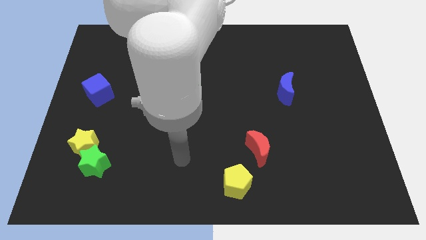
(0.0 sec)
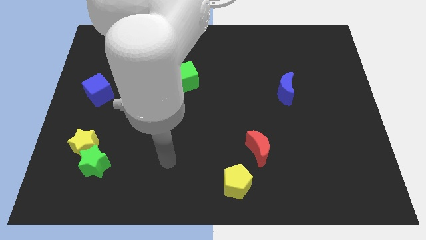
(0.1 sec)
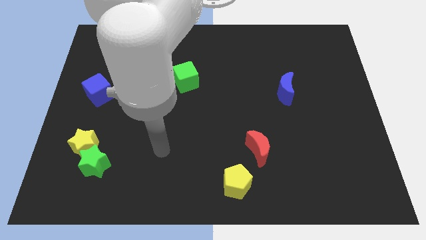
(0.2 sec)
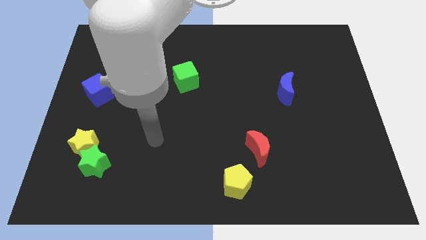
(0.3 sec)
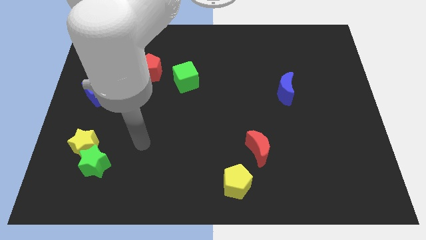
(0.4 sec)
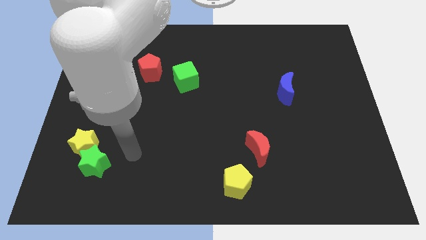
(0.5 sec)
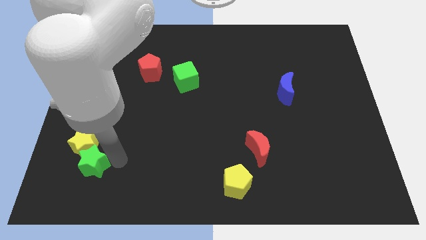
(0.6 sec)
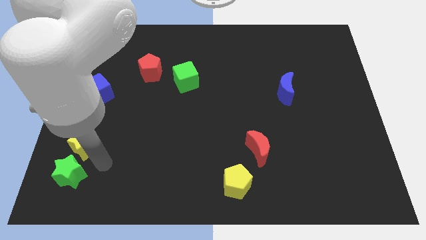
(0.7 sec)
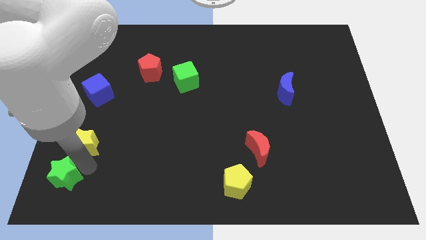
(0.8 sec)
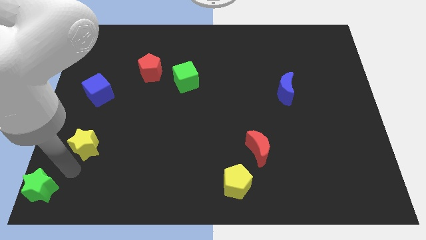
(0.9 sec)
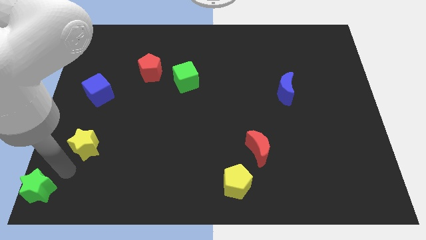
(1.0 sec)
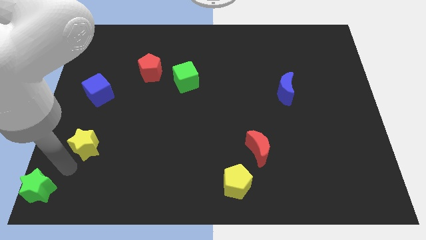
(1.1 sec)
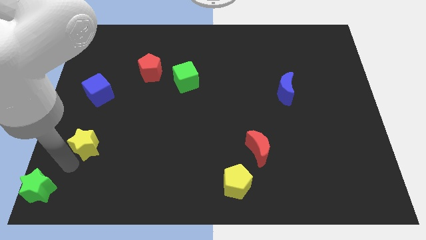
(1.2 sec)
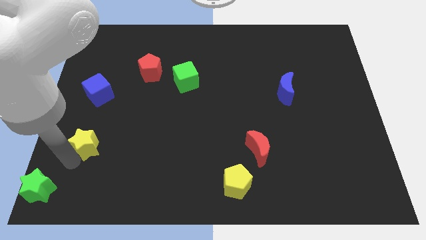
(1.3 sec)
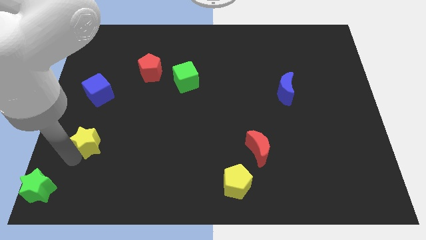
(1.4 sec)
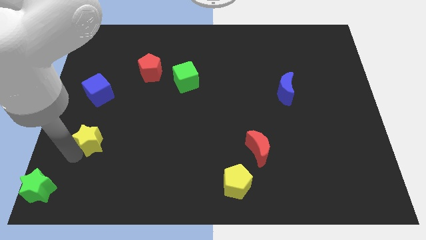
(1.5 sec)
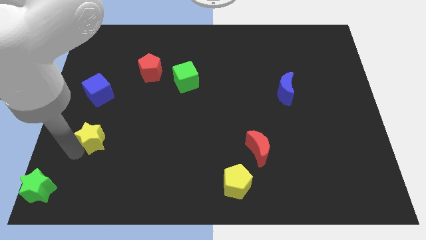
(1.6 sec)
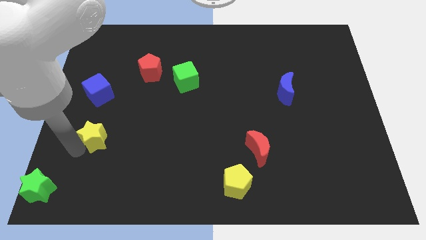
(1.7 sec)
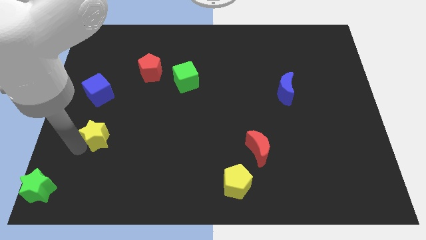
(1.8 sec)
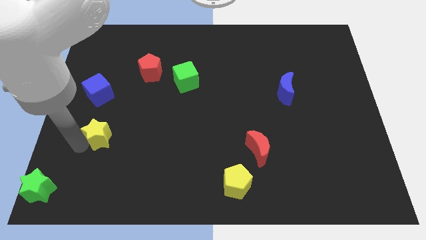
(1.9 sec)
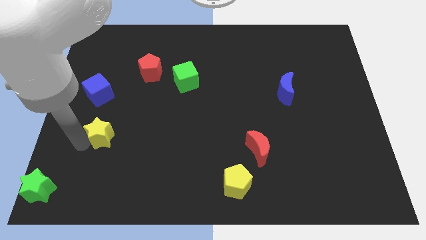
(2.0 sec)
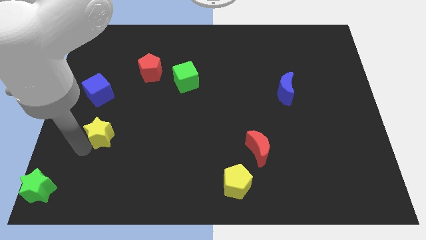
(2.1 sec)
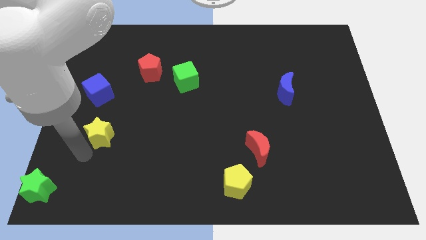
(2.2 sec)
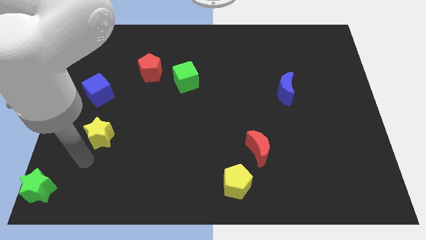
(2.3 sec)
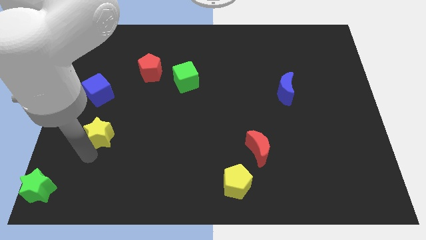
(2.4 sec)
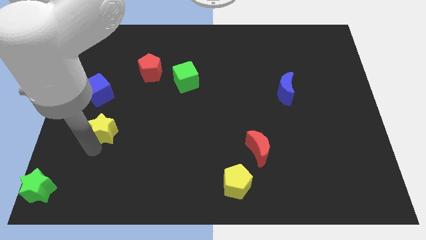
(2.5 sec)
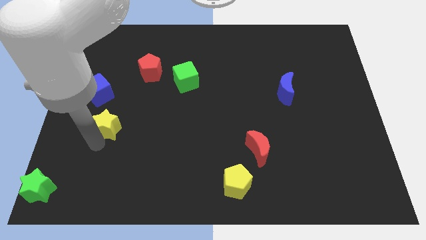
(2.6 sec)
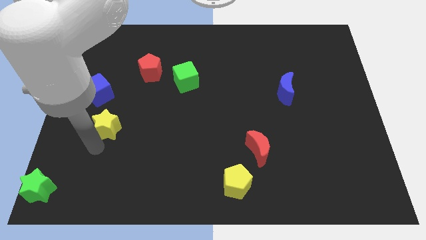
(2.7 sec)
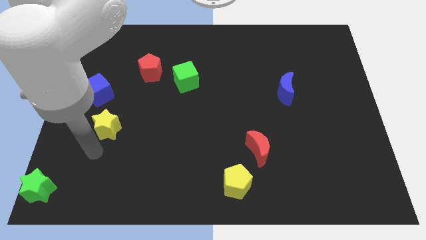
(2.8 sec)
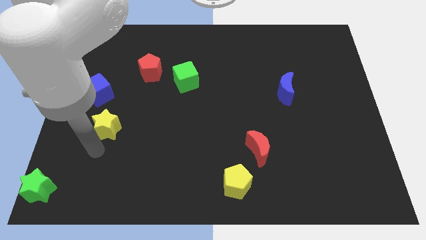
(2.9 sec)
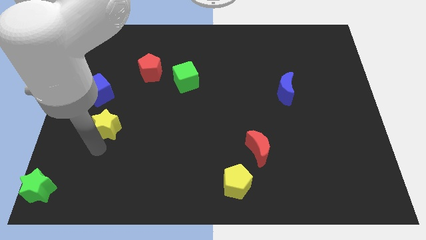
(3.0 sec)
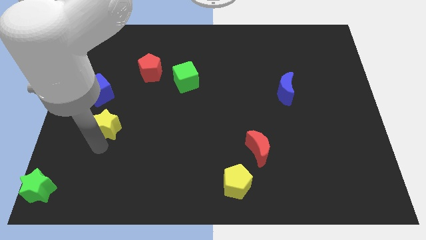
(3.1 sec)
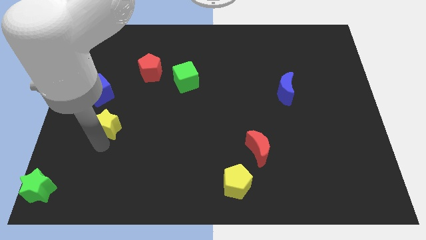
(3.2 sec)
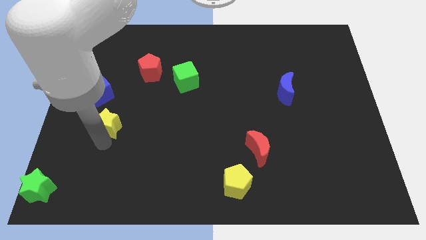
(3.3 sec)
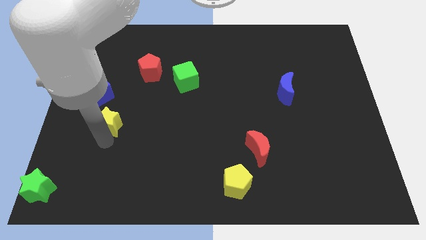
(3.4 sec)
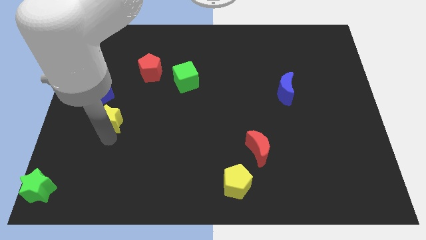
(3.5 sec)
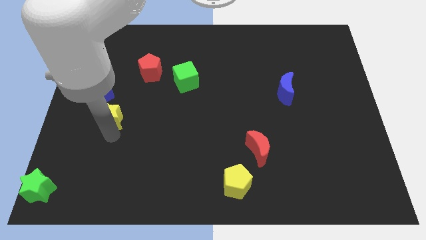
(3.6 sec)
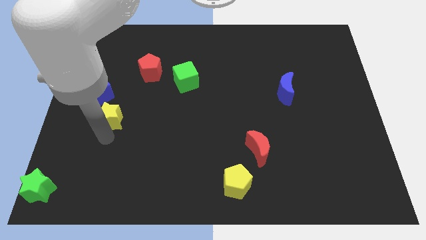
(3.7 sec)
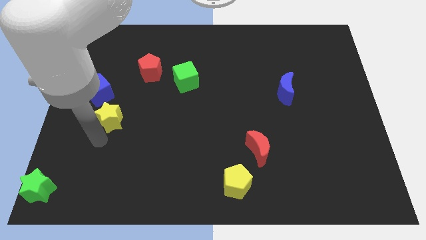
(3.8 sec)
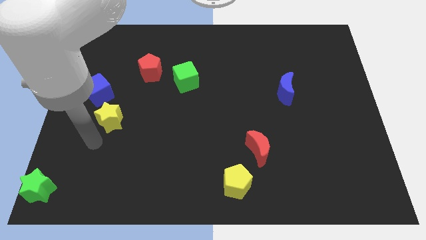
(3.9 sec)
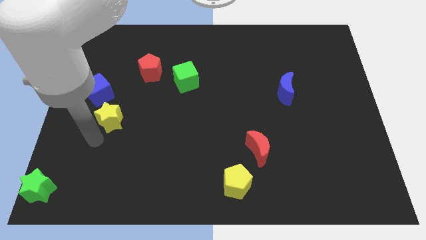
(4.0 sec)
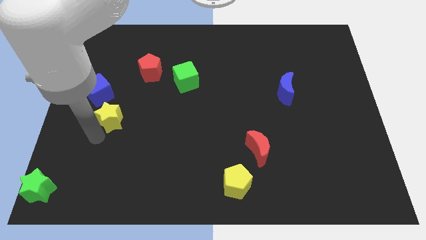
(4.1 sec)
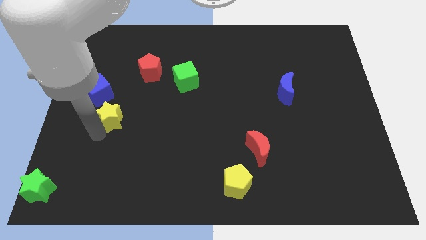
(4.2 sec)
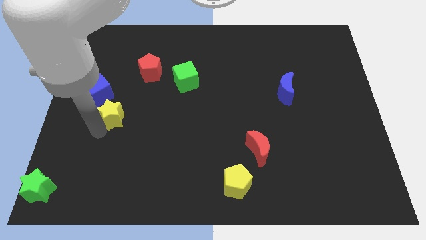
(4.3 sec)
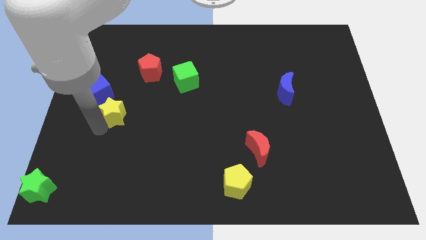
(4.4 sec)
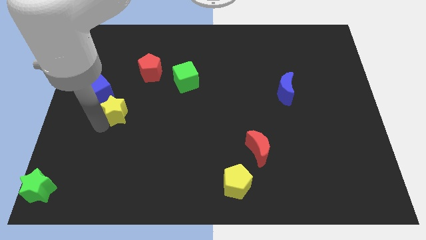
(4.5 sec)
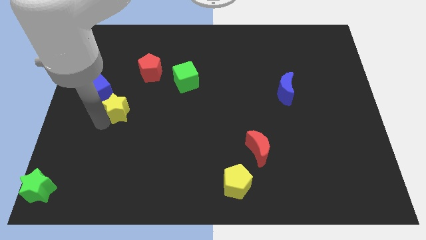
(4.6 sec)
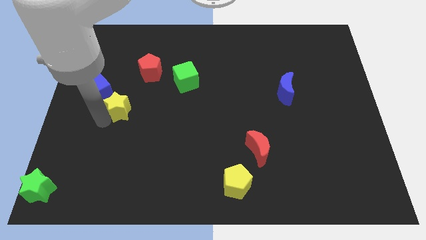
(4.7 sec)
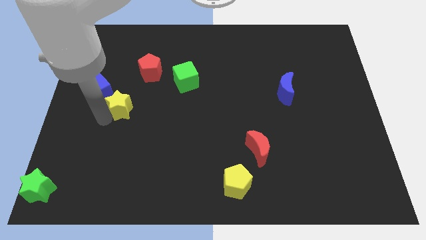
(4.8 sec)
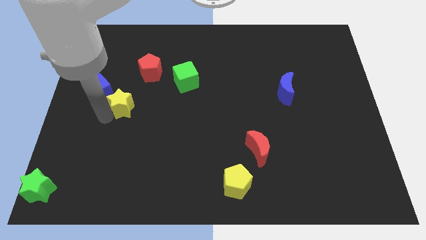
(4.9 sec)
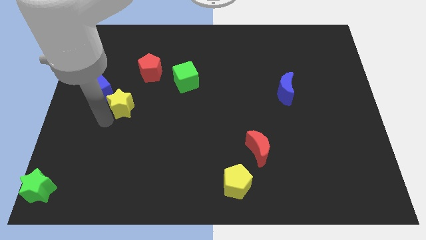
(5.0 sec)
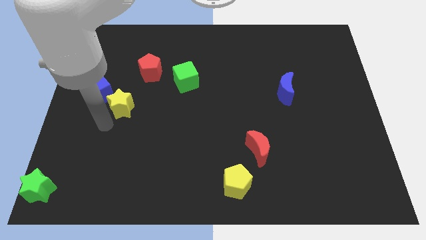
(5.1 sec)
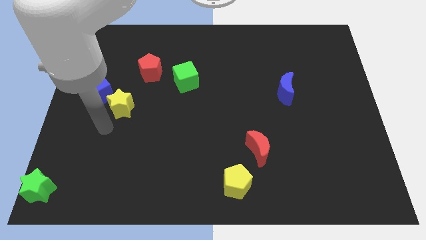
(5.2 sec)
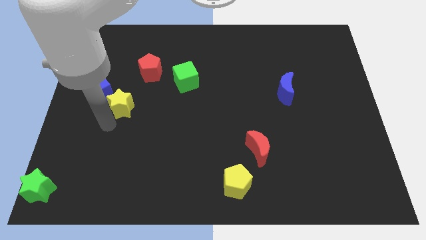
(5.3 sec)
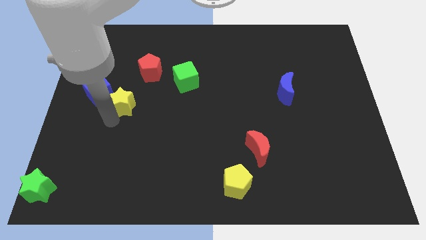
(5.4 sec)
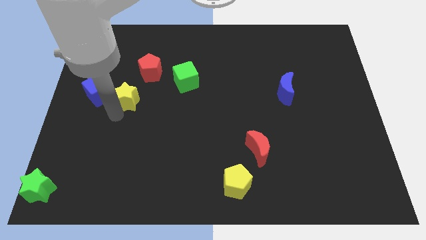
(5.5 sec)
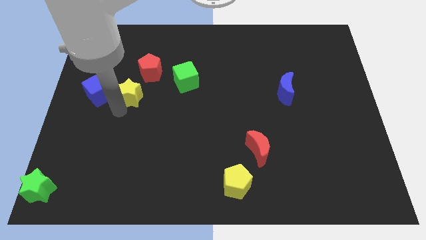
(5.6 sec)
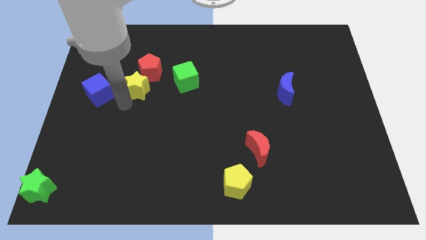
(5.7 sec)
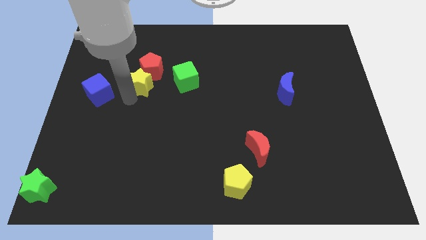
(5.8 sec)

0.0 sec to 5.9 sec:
slide the yellow star towards the red pentagon

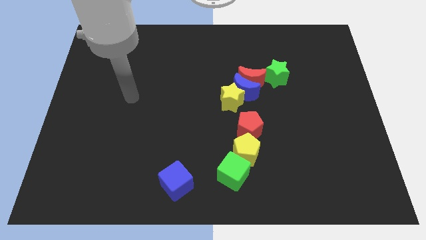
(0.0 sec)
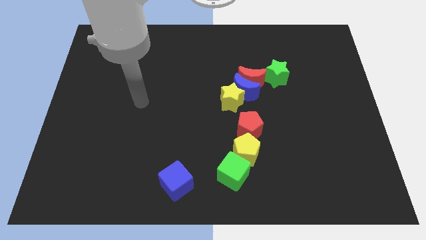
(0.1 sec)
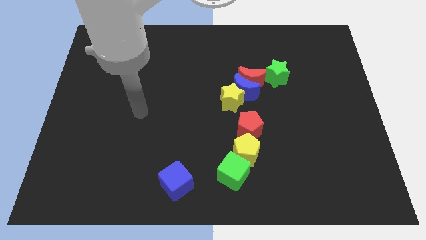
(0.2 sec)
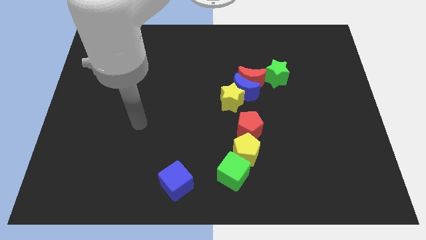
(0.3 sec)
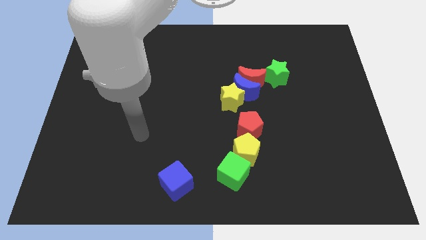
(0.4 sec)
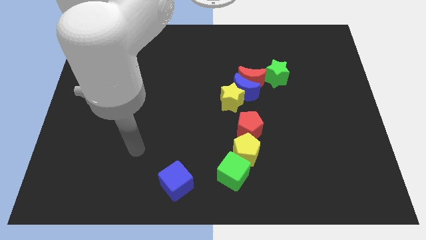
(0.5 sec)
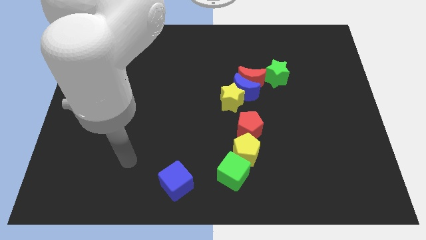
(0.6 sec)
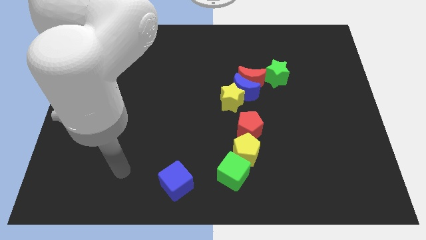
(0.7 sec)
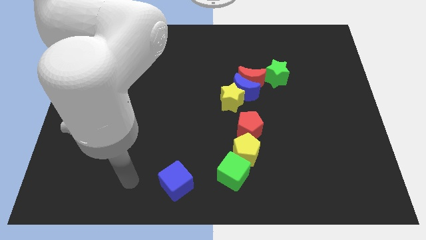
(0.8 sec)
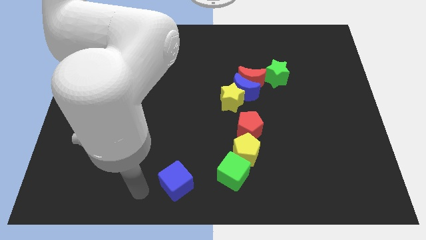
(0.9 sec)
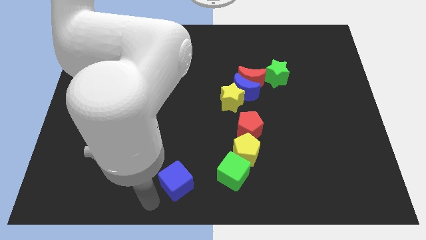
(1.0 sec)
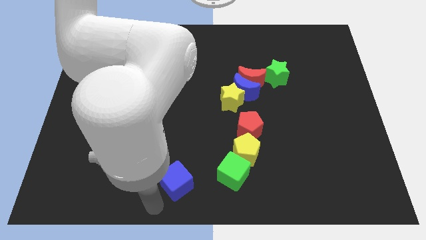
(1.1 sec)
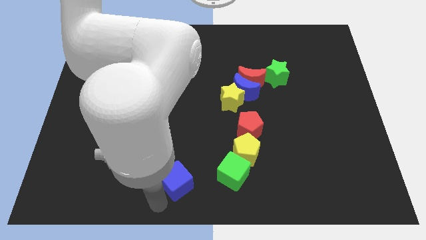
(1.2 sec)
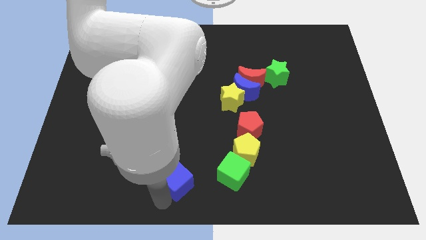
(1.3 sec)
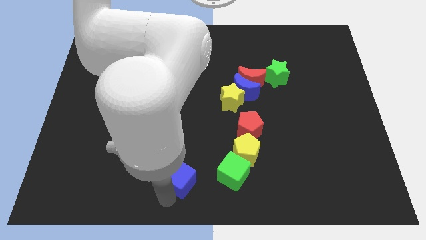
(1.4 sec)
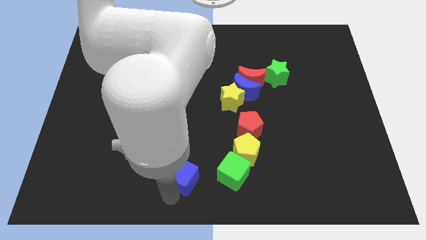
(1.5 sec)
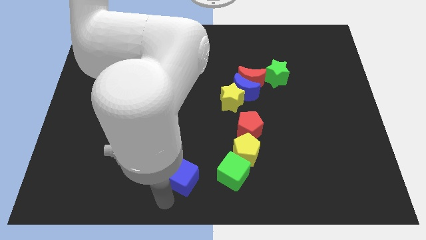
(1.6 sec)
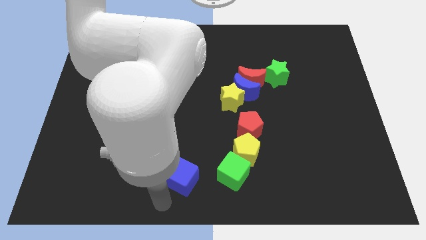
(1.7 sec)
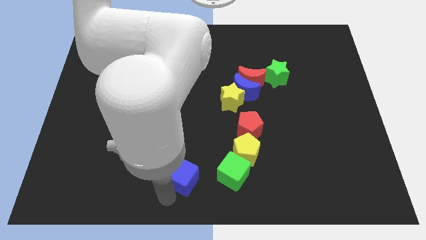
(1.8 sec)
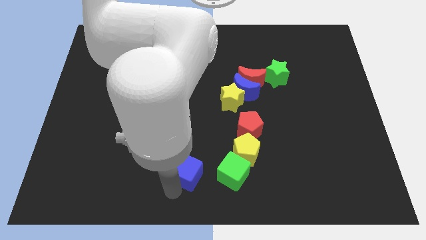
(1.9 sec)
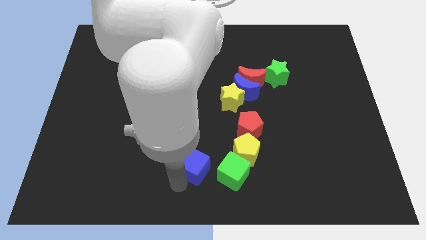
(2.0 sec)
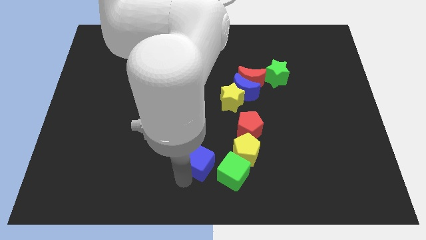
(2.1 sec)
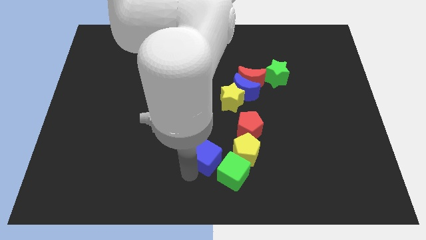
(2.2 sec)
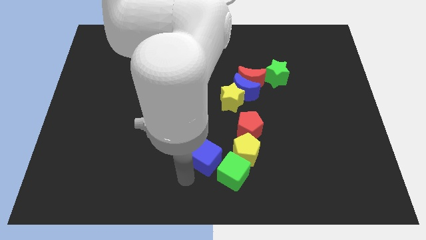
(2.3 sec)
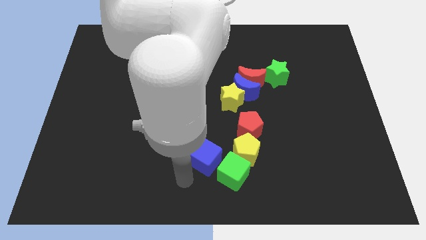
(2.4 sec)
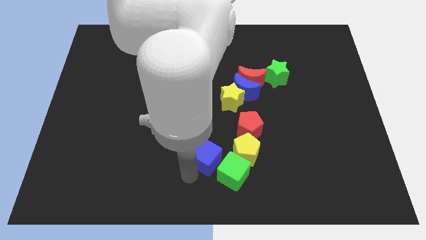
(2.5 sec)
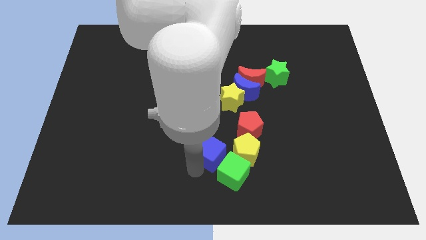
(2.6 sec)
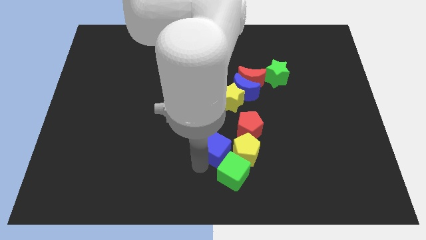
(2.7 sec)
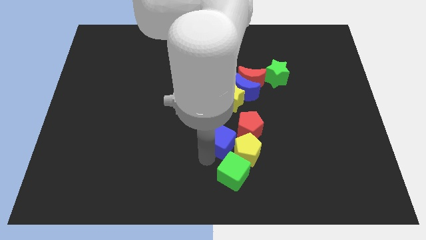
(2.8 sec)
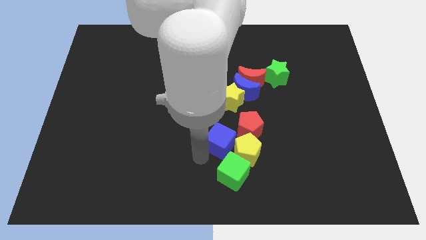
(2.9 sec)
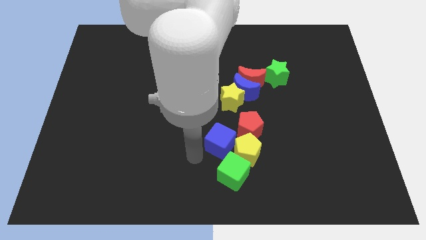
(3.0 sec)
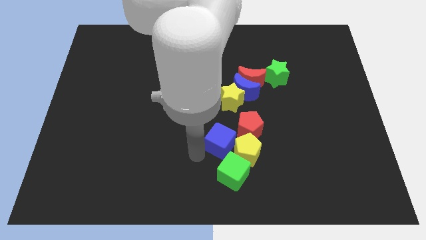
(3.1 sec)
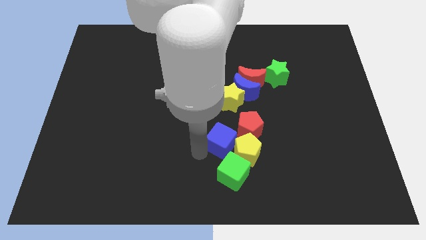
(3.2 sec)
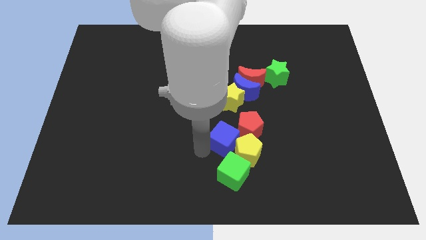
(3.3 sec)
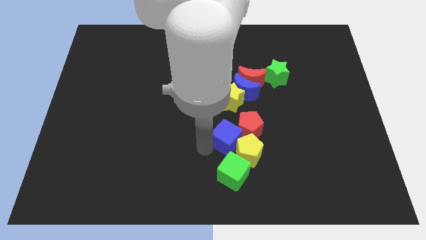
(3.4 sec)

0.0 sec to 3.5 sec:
slide the blue cube next to the red pentagon
